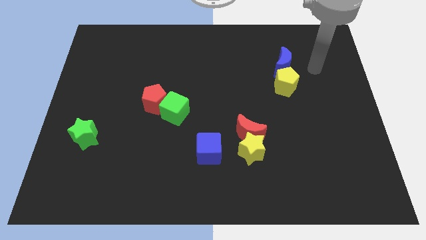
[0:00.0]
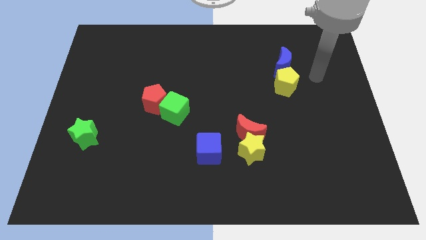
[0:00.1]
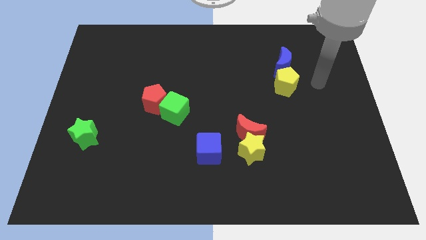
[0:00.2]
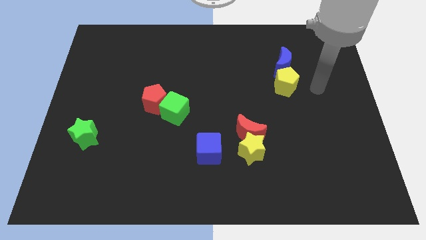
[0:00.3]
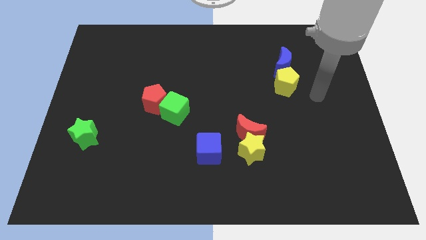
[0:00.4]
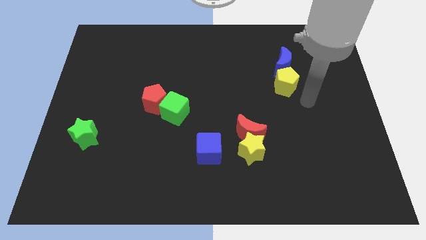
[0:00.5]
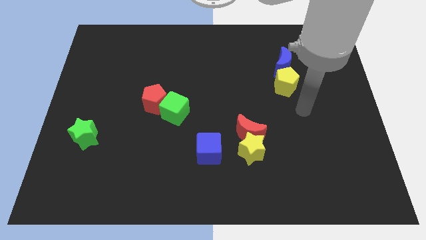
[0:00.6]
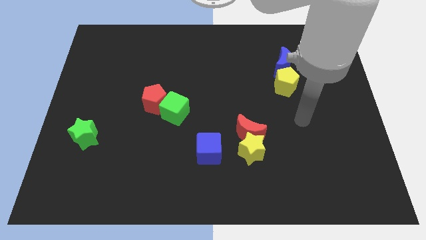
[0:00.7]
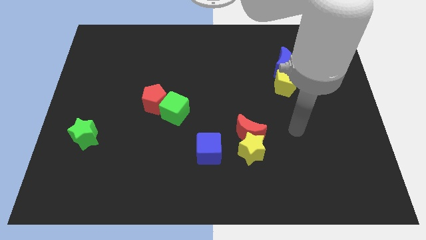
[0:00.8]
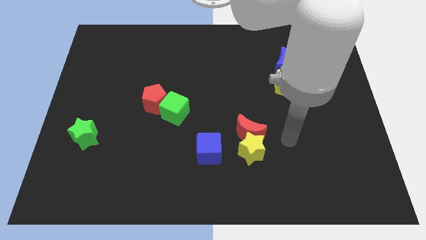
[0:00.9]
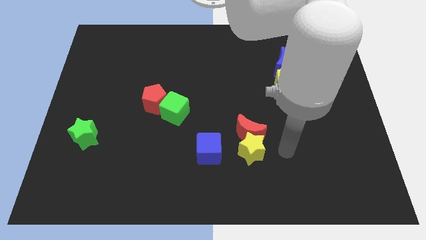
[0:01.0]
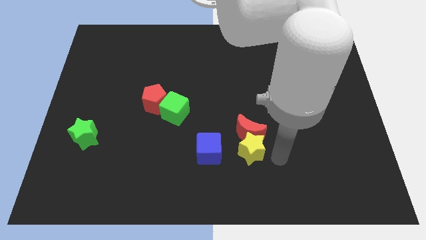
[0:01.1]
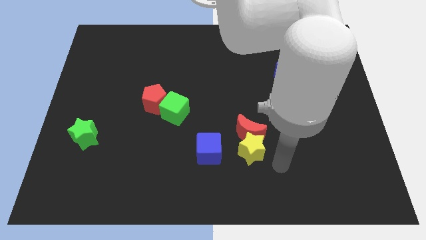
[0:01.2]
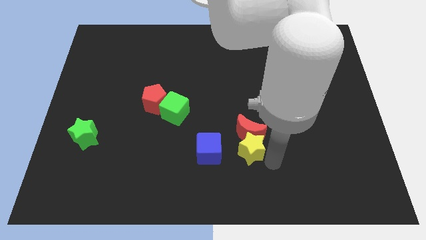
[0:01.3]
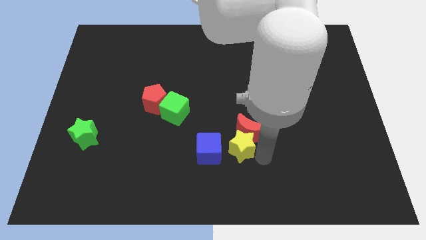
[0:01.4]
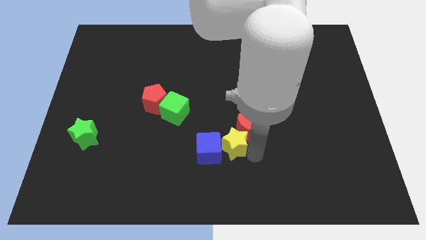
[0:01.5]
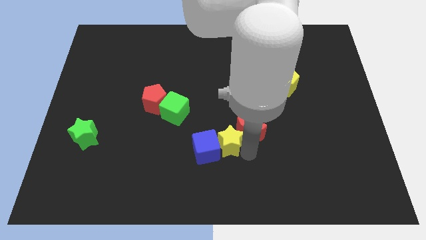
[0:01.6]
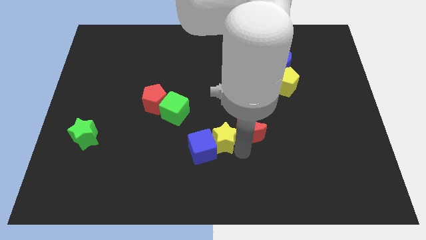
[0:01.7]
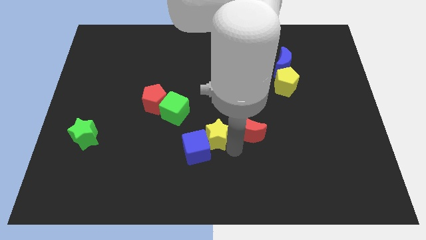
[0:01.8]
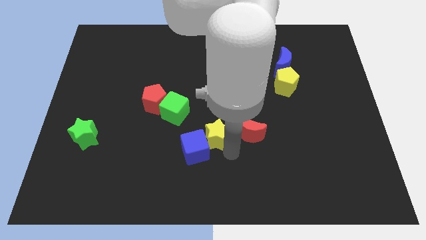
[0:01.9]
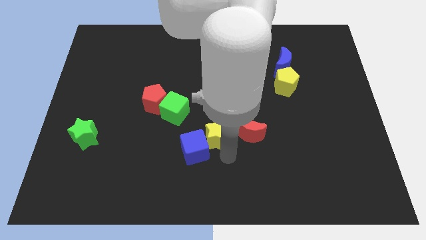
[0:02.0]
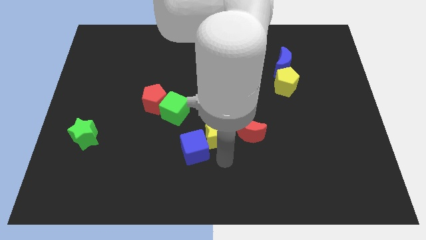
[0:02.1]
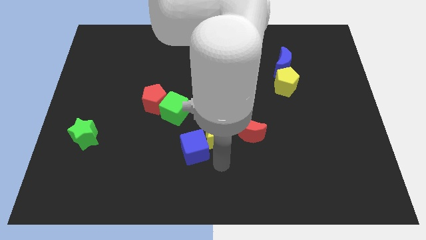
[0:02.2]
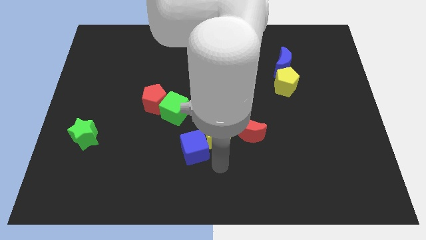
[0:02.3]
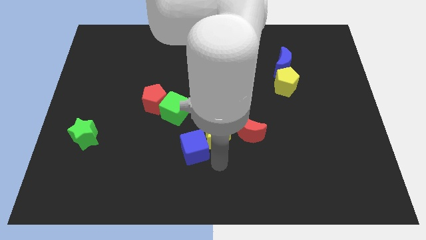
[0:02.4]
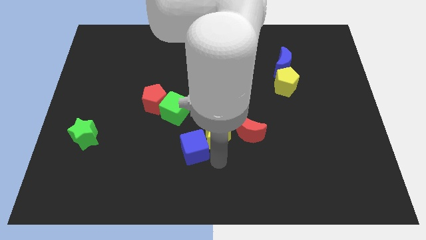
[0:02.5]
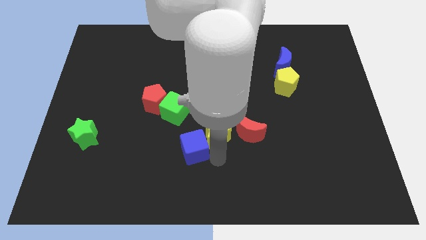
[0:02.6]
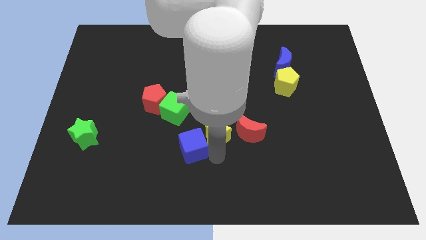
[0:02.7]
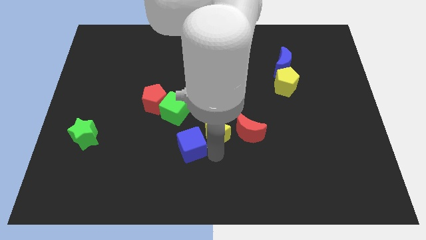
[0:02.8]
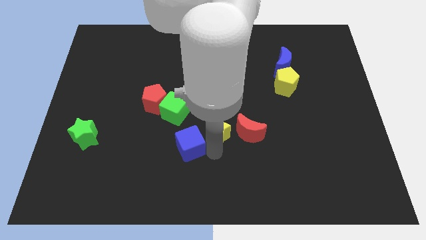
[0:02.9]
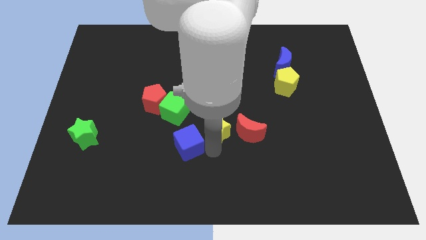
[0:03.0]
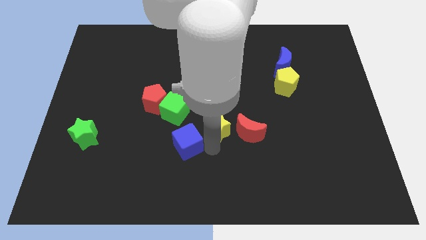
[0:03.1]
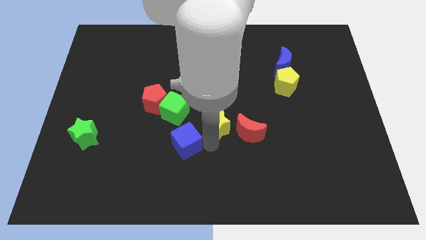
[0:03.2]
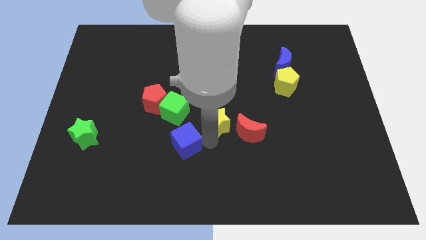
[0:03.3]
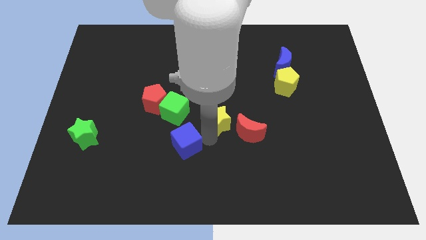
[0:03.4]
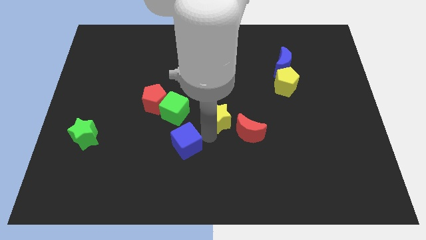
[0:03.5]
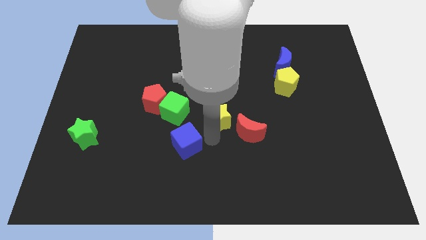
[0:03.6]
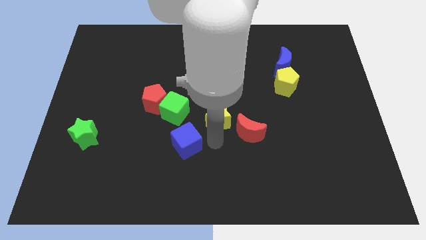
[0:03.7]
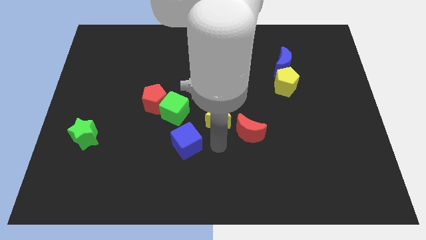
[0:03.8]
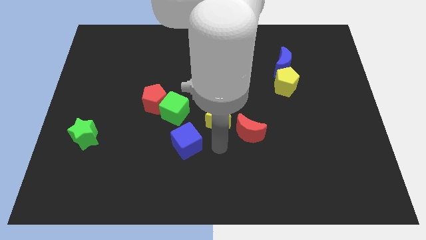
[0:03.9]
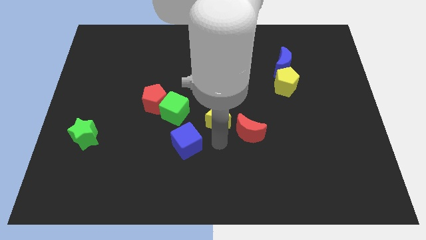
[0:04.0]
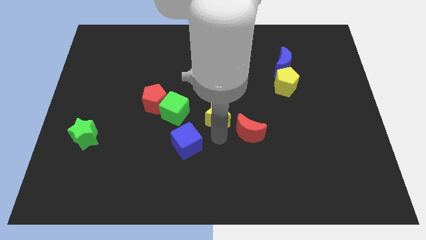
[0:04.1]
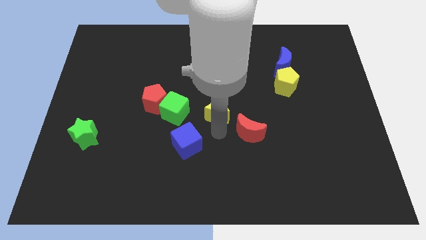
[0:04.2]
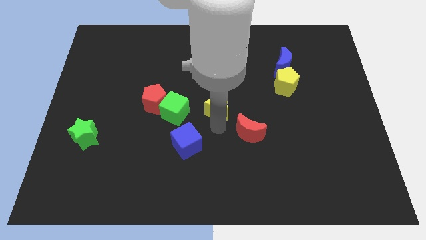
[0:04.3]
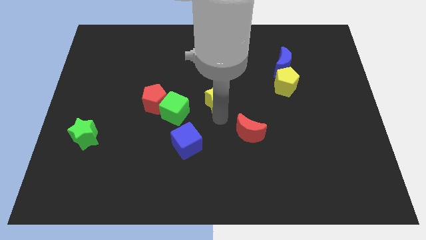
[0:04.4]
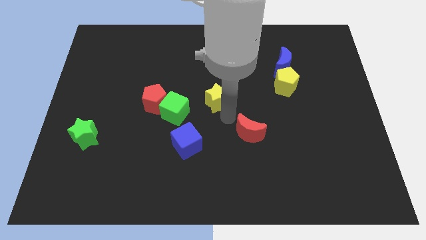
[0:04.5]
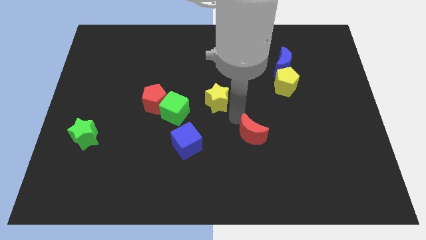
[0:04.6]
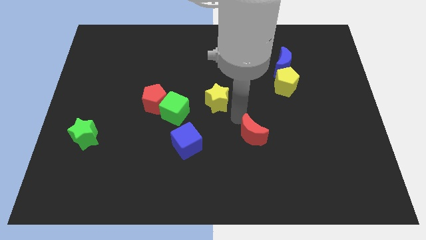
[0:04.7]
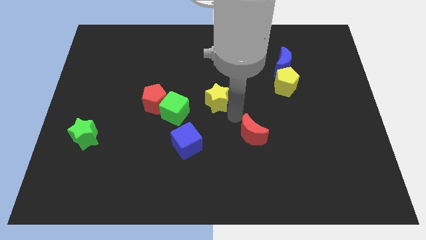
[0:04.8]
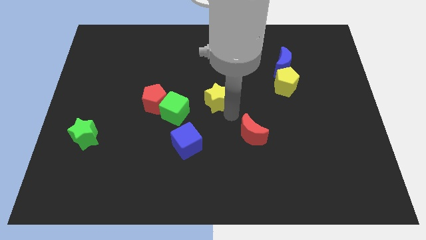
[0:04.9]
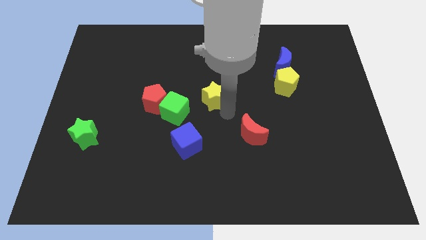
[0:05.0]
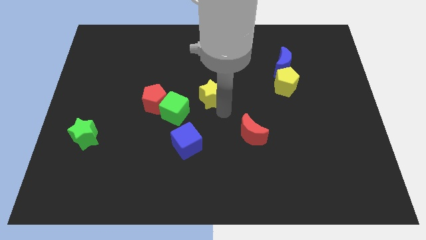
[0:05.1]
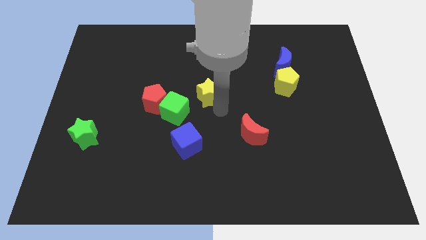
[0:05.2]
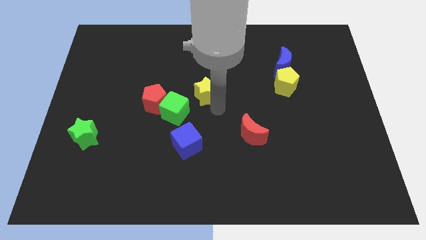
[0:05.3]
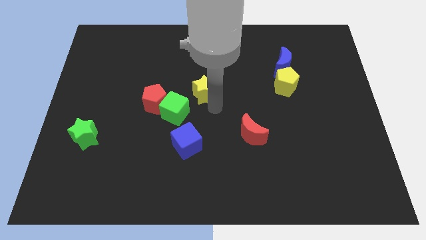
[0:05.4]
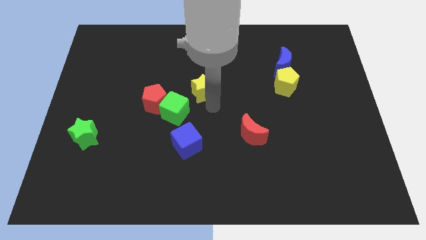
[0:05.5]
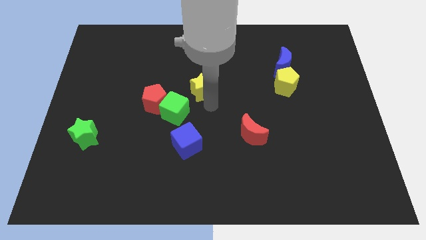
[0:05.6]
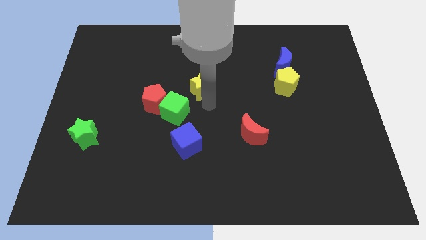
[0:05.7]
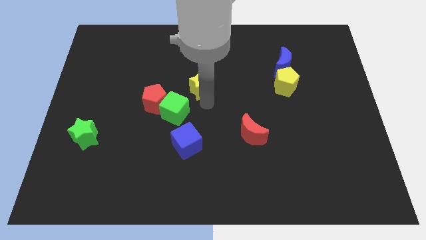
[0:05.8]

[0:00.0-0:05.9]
move the yellow star up and then left

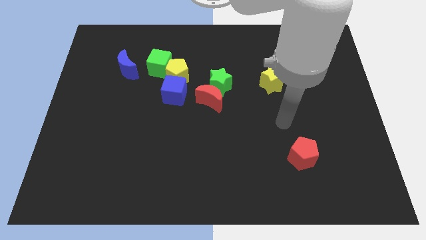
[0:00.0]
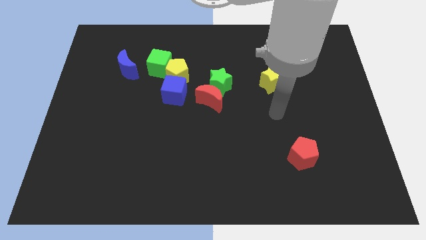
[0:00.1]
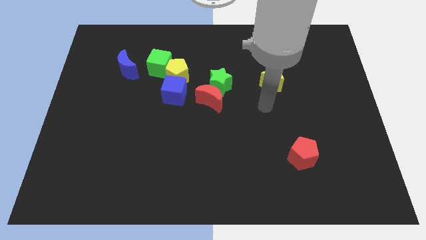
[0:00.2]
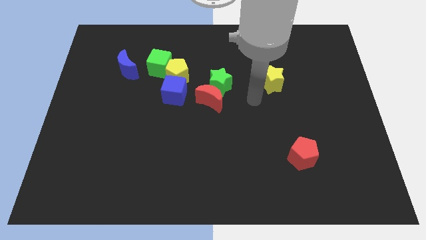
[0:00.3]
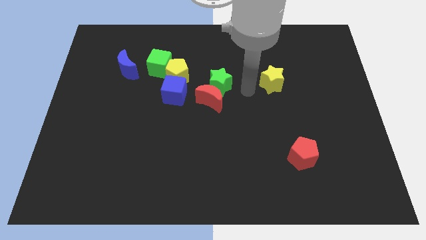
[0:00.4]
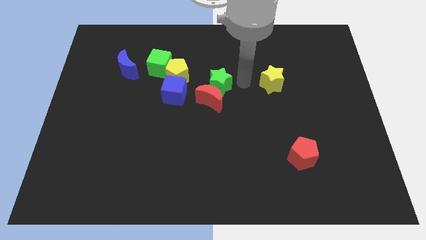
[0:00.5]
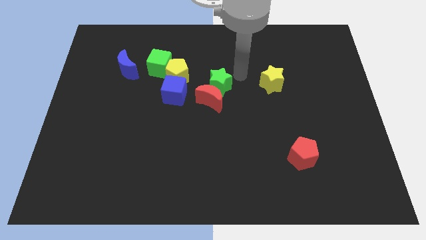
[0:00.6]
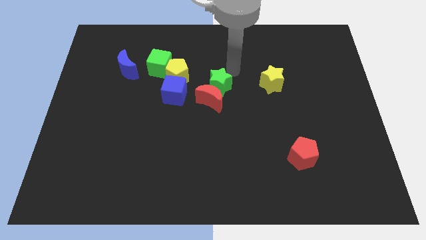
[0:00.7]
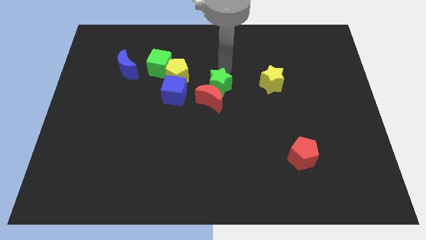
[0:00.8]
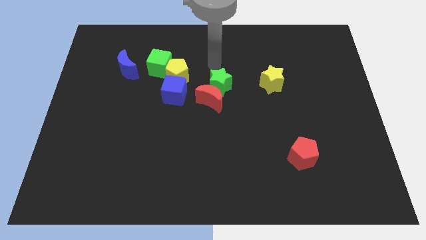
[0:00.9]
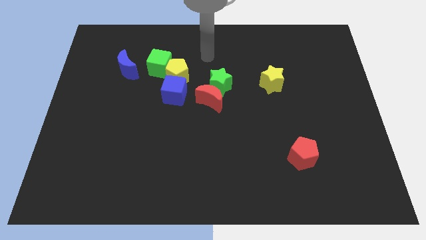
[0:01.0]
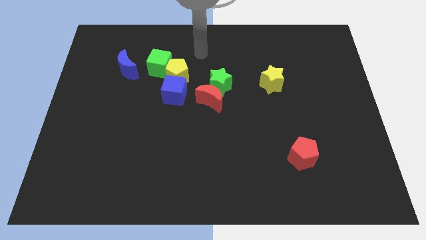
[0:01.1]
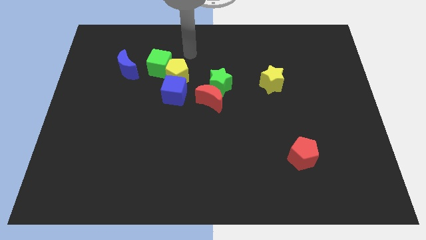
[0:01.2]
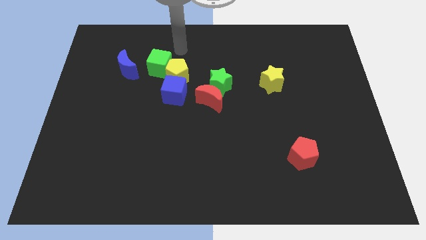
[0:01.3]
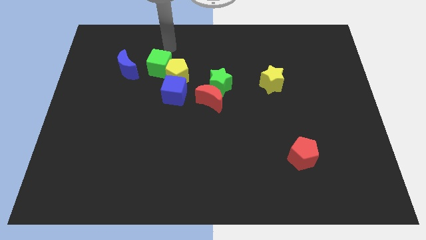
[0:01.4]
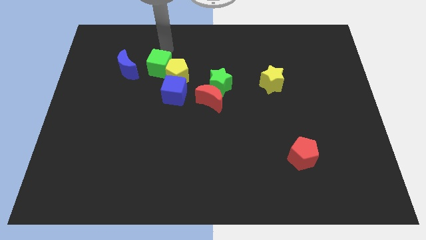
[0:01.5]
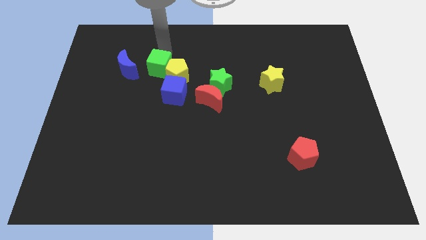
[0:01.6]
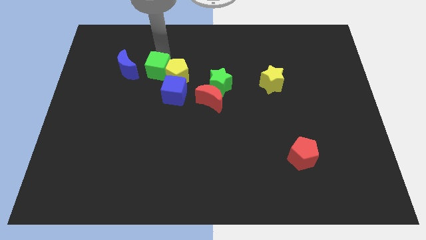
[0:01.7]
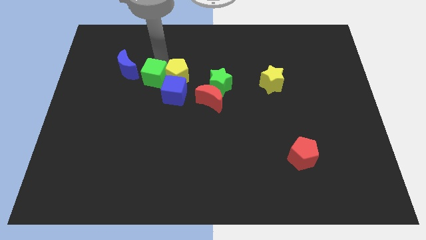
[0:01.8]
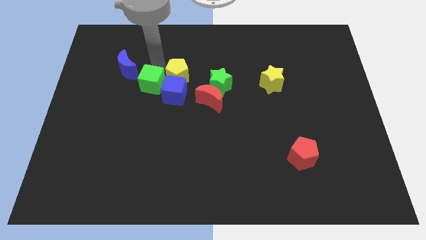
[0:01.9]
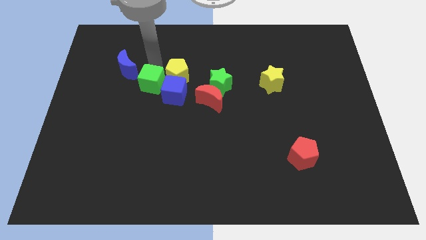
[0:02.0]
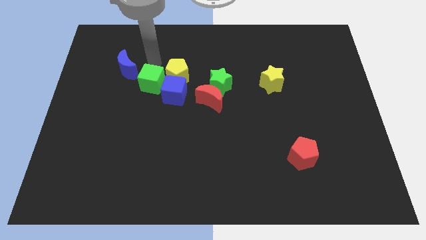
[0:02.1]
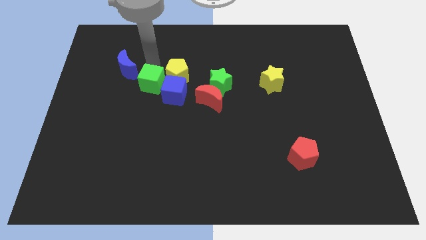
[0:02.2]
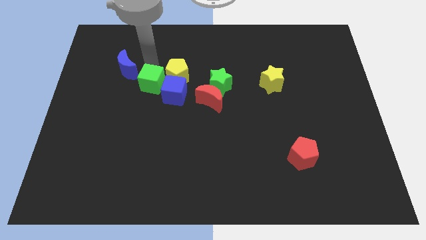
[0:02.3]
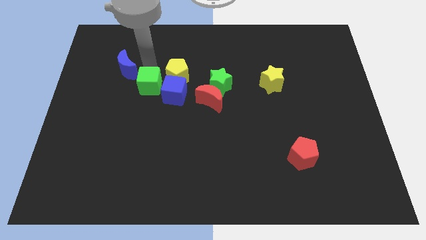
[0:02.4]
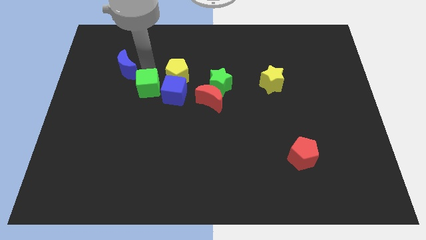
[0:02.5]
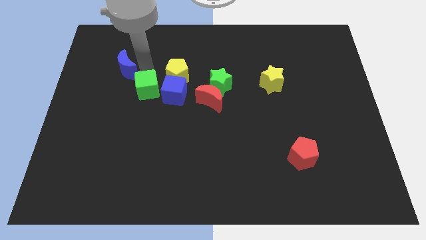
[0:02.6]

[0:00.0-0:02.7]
move the green cube downwards somewhat
